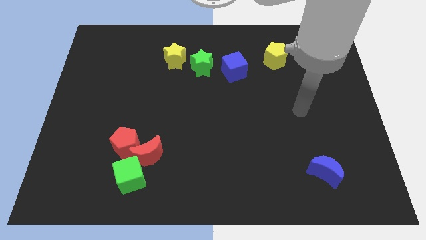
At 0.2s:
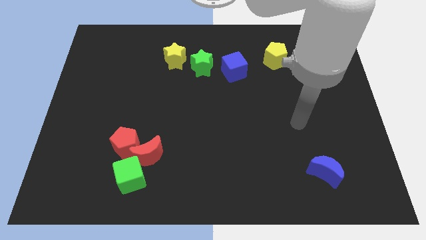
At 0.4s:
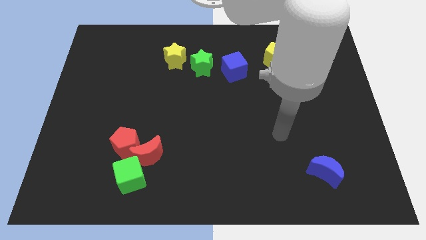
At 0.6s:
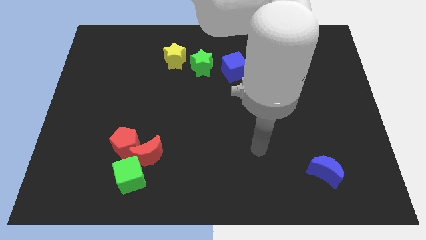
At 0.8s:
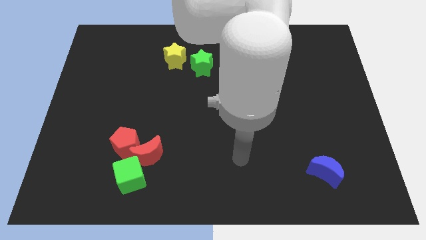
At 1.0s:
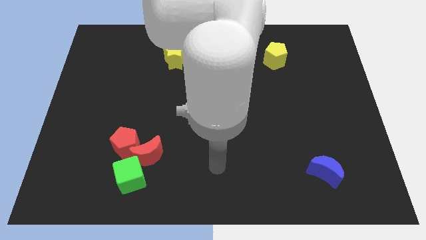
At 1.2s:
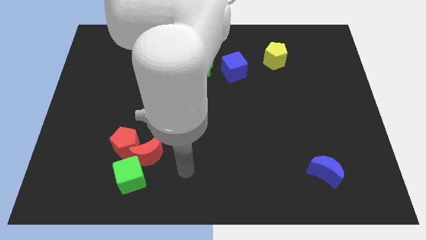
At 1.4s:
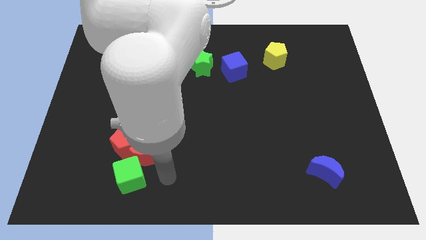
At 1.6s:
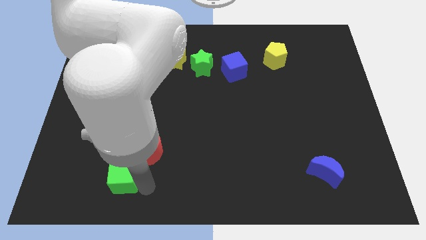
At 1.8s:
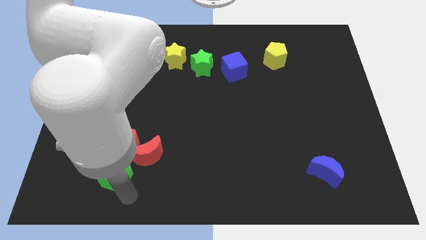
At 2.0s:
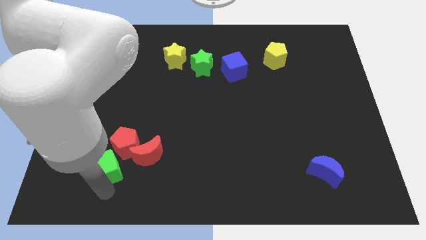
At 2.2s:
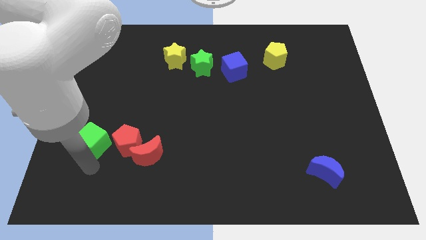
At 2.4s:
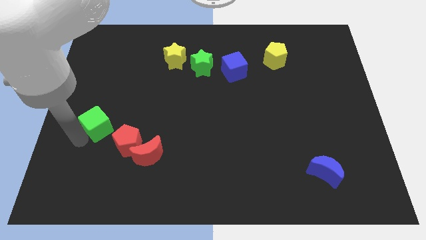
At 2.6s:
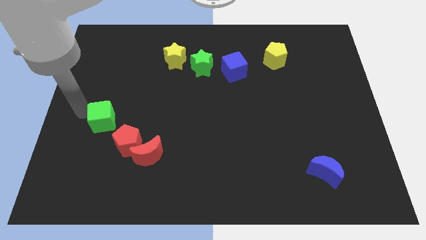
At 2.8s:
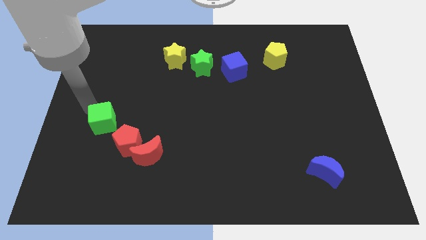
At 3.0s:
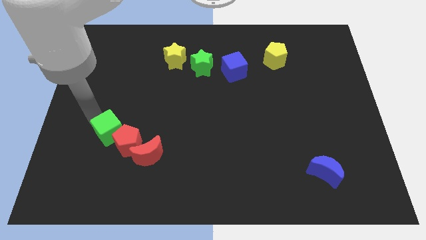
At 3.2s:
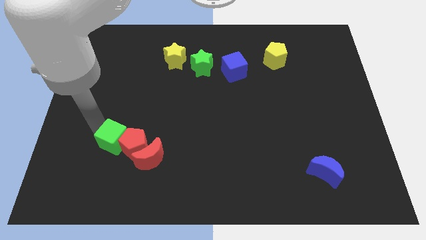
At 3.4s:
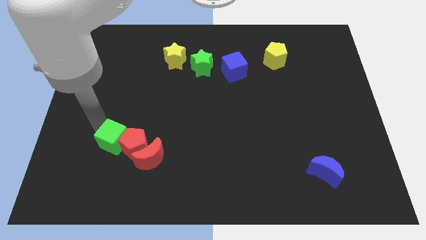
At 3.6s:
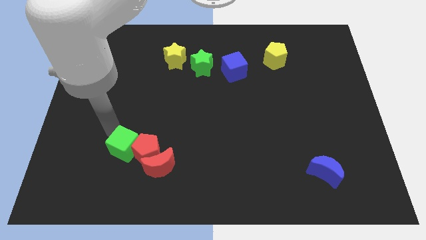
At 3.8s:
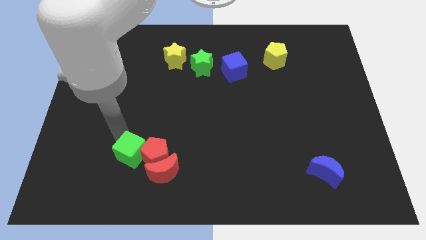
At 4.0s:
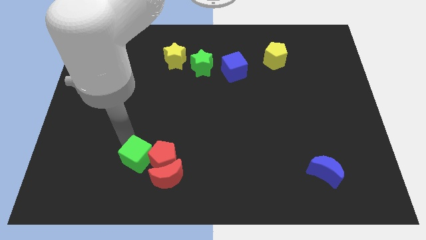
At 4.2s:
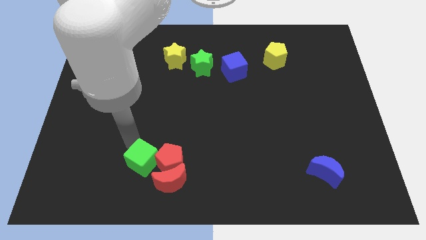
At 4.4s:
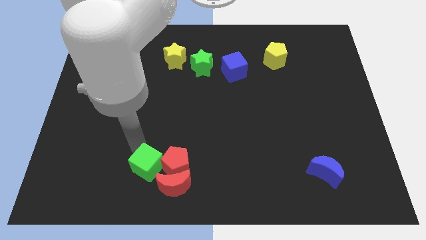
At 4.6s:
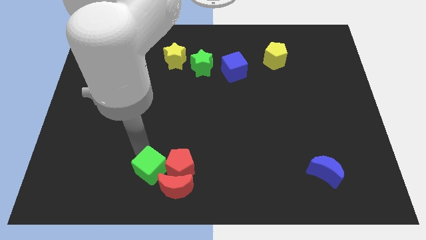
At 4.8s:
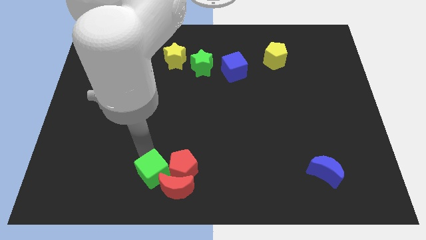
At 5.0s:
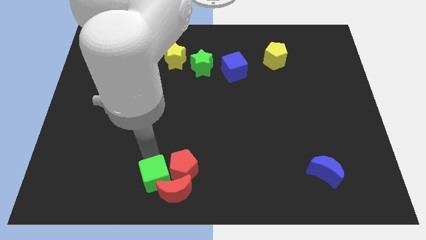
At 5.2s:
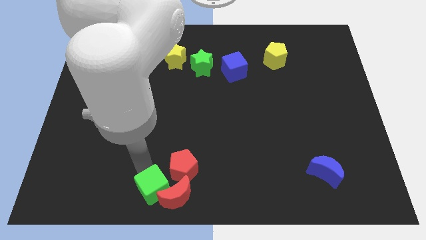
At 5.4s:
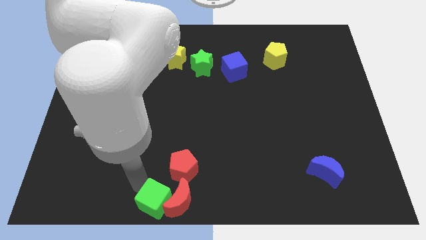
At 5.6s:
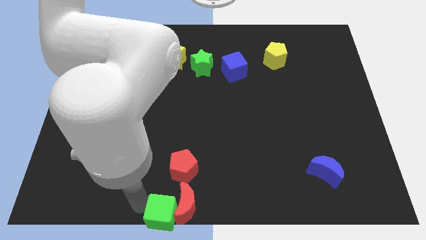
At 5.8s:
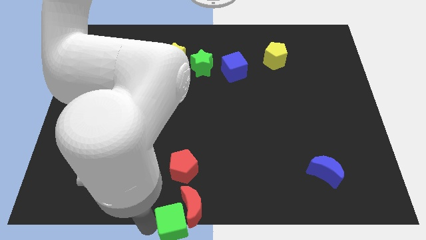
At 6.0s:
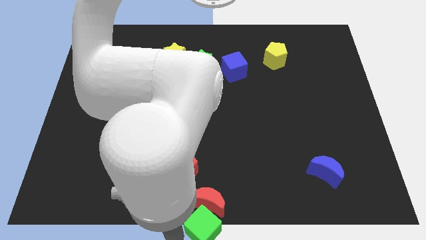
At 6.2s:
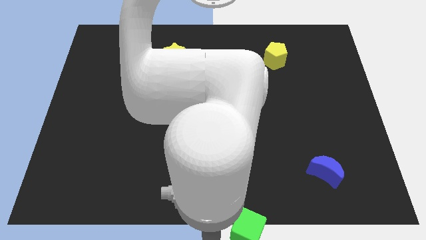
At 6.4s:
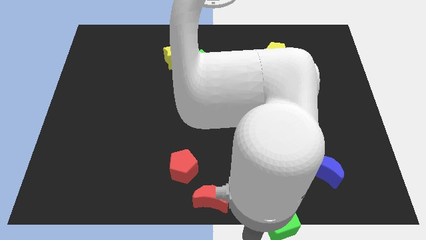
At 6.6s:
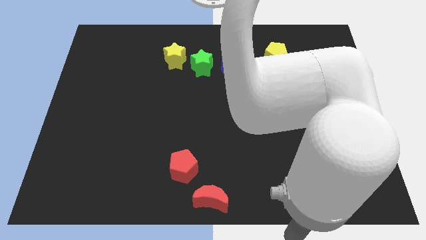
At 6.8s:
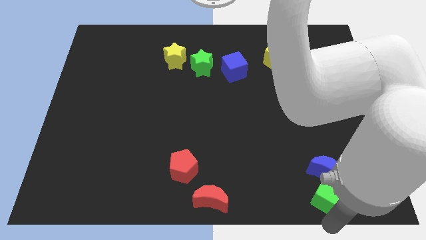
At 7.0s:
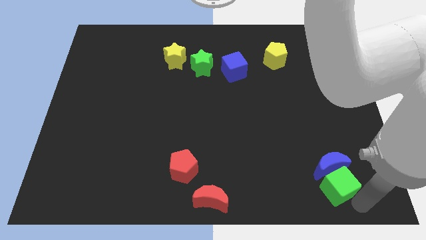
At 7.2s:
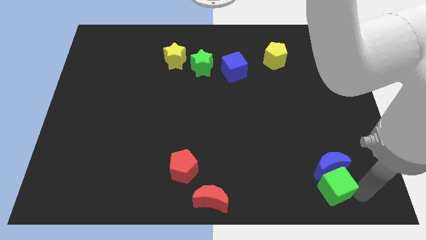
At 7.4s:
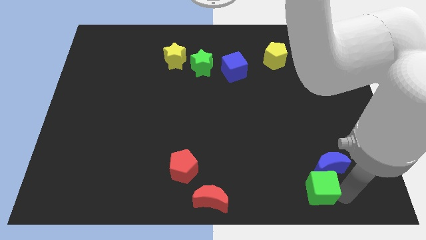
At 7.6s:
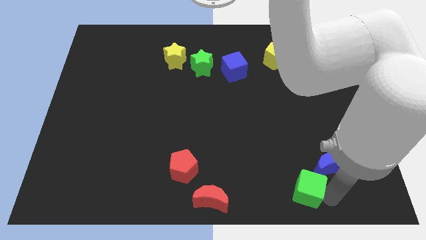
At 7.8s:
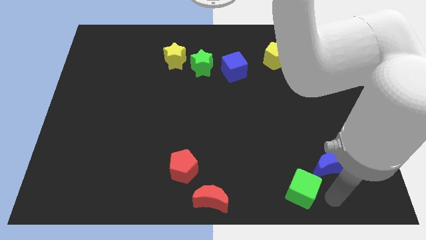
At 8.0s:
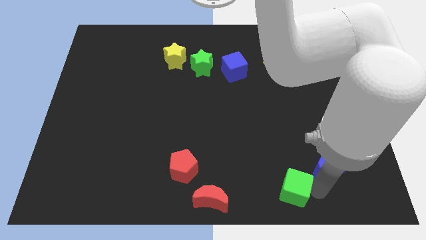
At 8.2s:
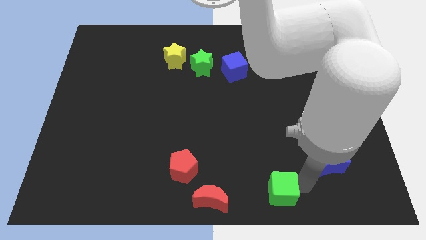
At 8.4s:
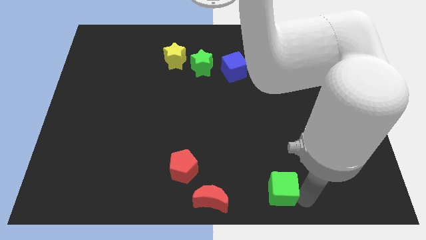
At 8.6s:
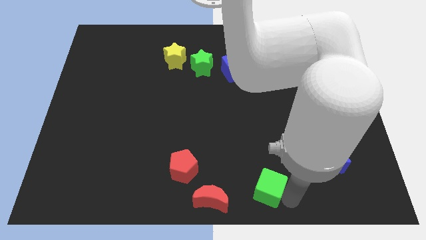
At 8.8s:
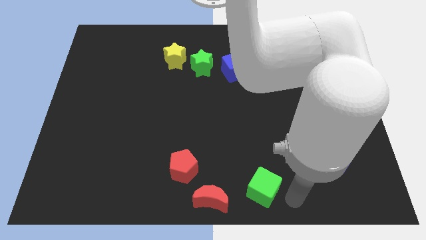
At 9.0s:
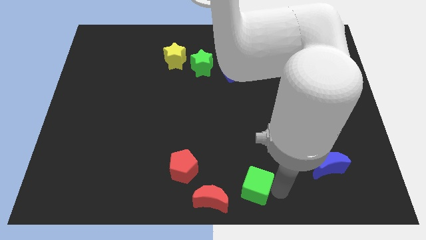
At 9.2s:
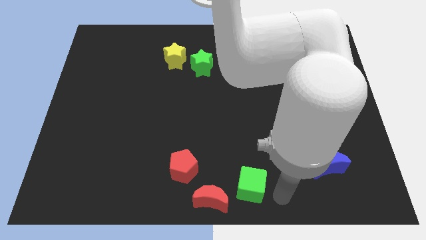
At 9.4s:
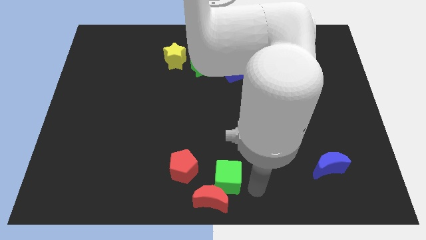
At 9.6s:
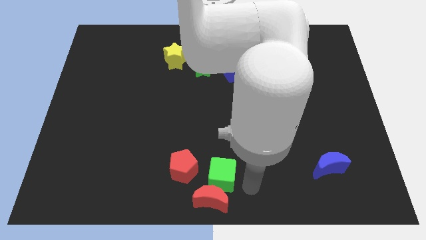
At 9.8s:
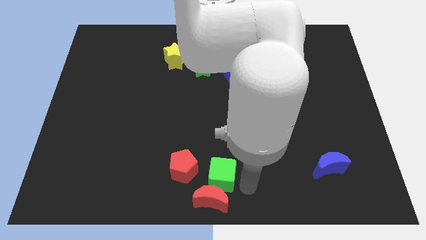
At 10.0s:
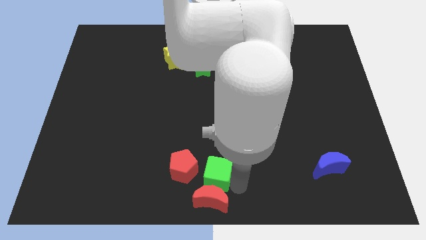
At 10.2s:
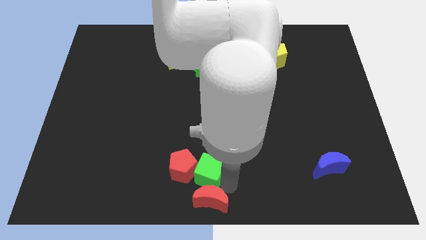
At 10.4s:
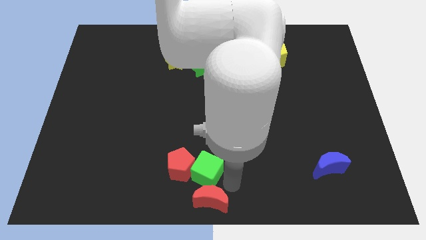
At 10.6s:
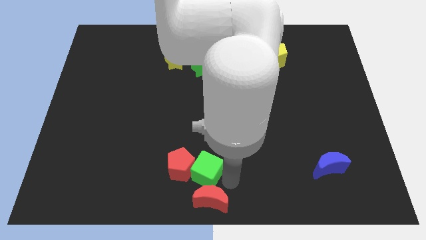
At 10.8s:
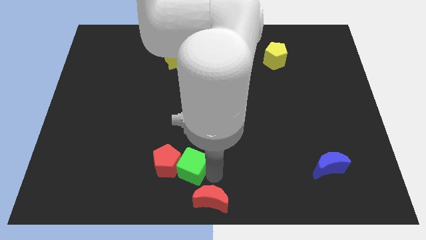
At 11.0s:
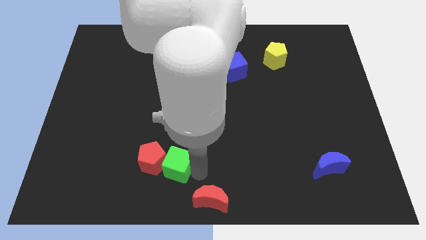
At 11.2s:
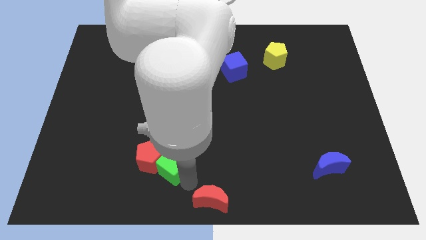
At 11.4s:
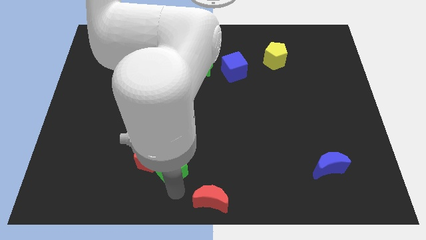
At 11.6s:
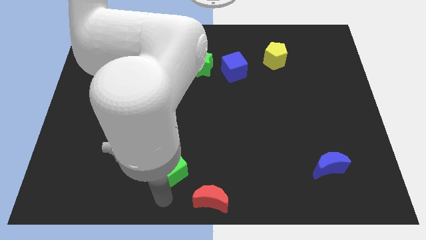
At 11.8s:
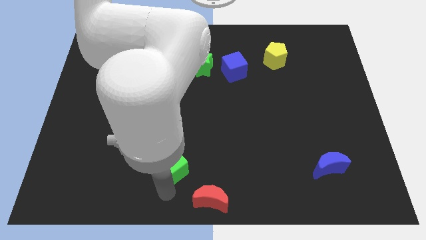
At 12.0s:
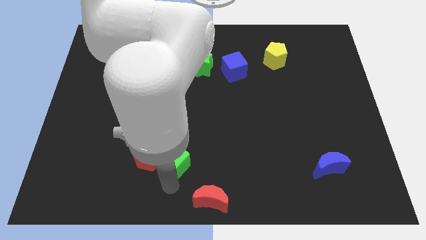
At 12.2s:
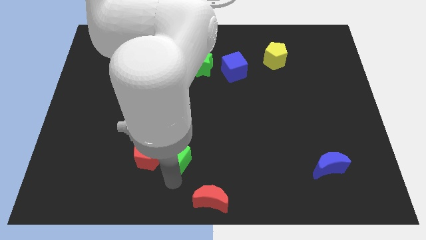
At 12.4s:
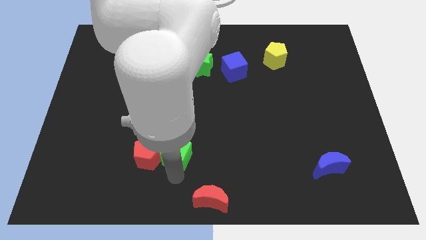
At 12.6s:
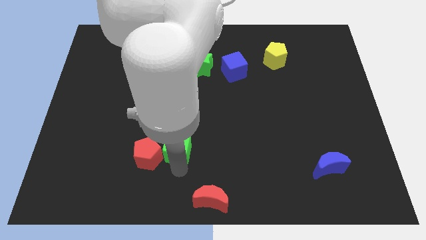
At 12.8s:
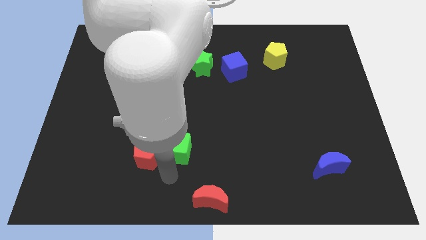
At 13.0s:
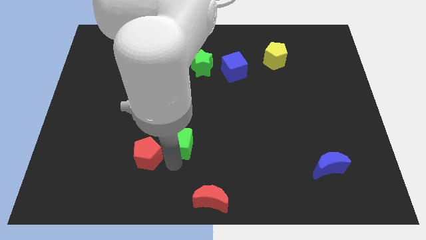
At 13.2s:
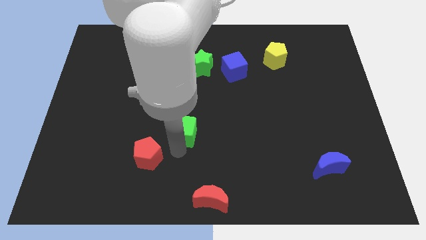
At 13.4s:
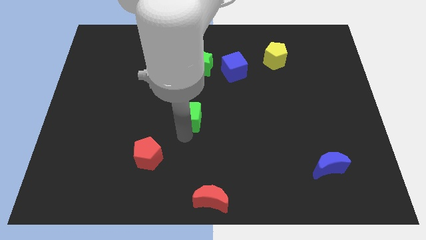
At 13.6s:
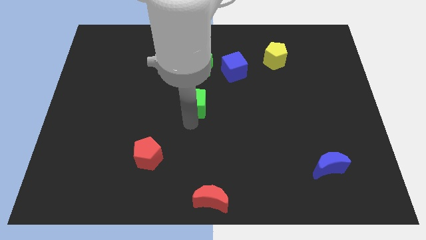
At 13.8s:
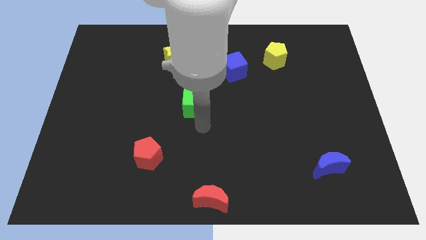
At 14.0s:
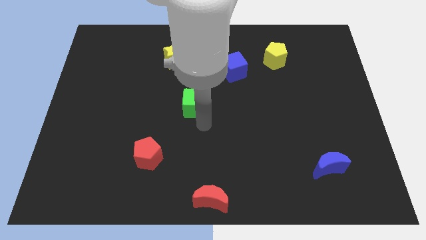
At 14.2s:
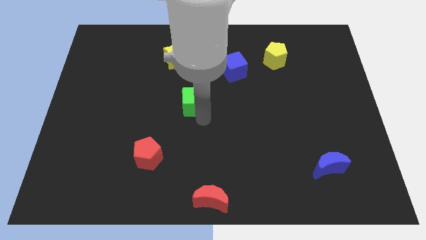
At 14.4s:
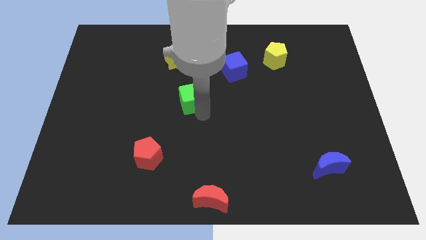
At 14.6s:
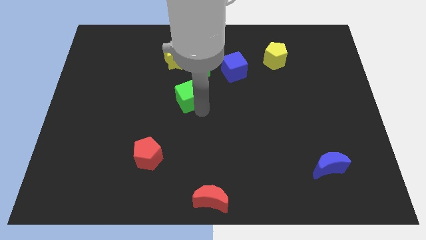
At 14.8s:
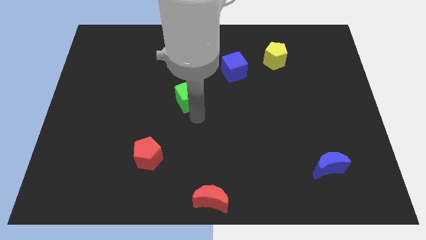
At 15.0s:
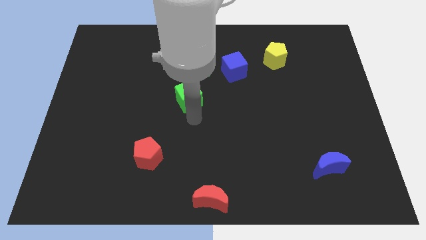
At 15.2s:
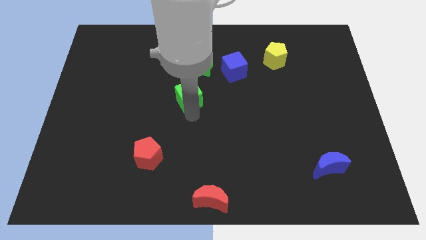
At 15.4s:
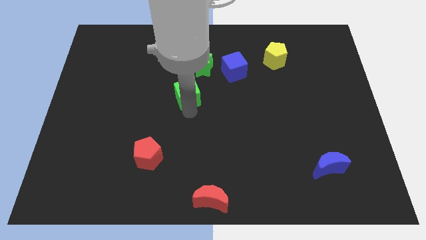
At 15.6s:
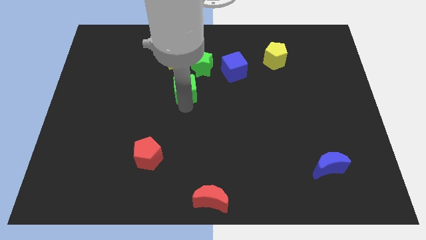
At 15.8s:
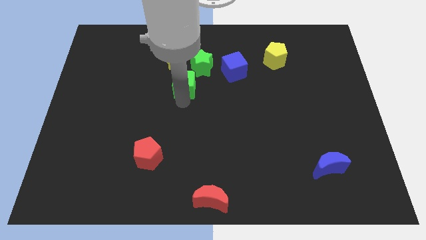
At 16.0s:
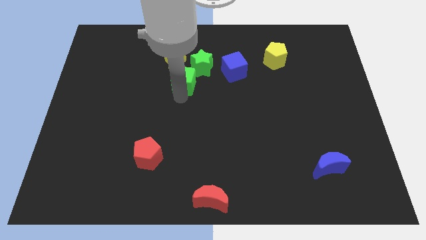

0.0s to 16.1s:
push the green cube to the left side of the blue cube
